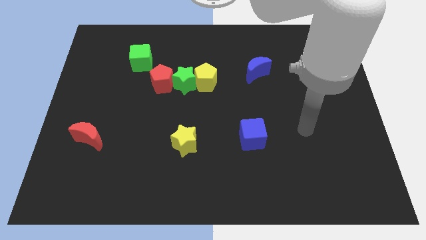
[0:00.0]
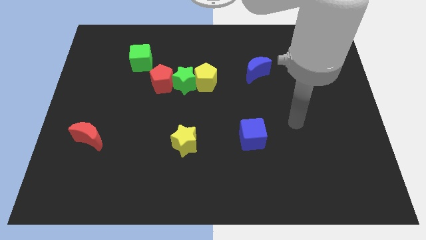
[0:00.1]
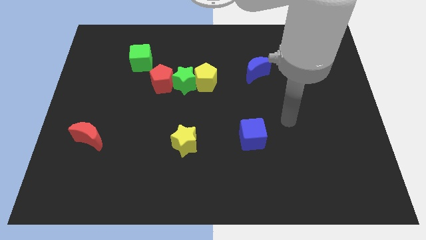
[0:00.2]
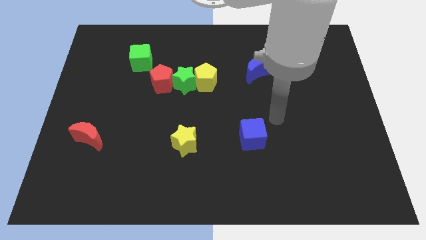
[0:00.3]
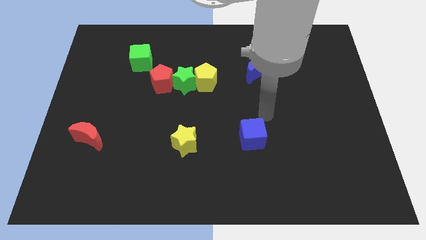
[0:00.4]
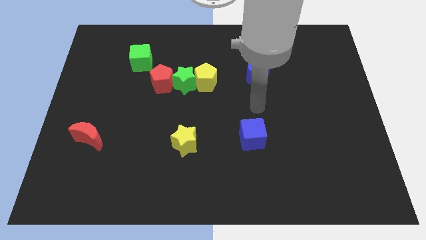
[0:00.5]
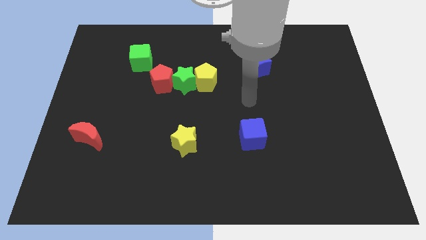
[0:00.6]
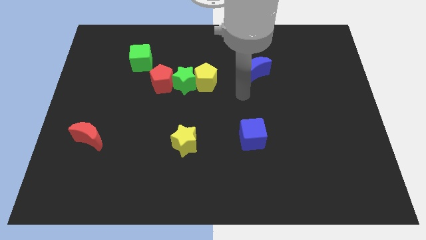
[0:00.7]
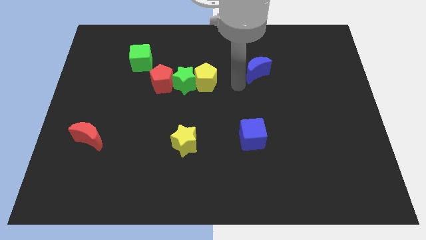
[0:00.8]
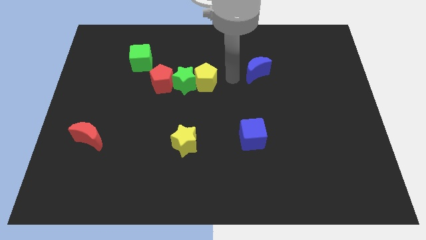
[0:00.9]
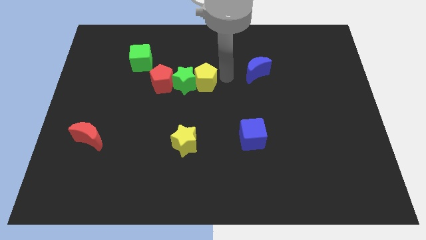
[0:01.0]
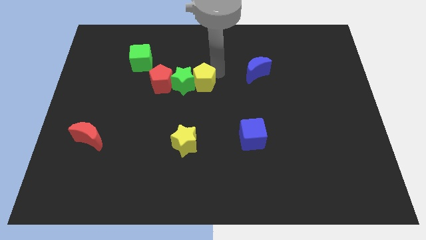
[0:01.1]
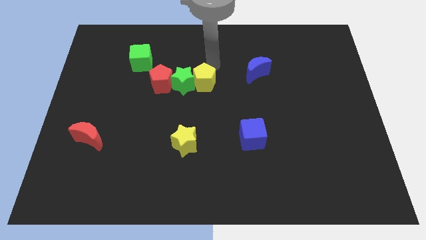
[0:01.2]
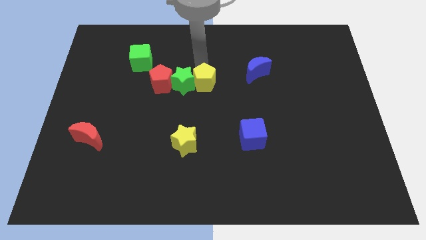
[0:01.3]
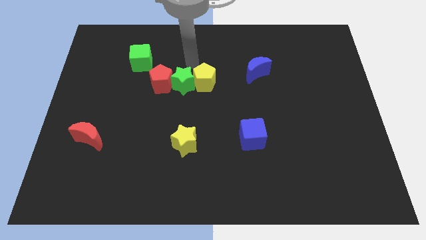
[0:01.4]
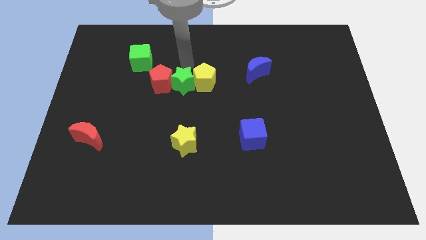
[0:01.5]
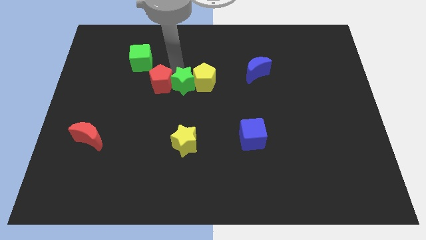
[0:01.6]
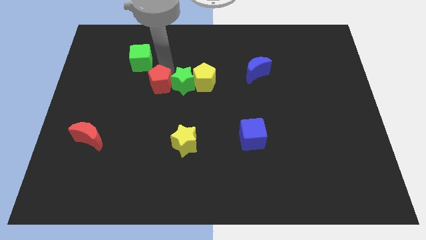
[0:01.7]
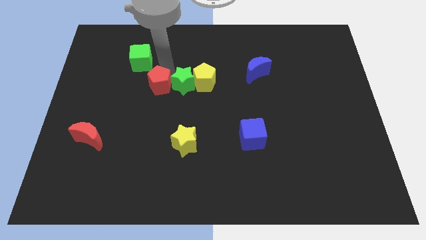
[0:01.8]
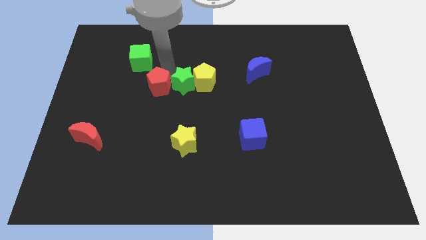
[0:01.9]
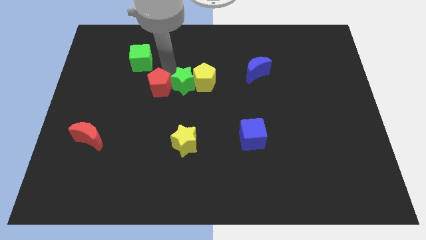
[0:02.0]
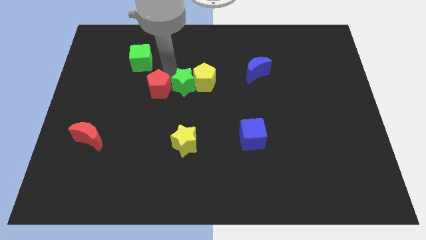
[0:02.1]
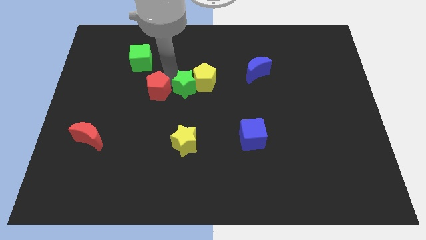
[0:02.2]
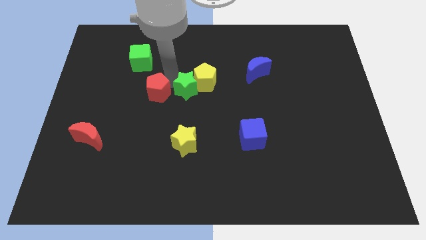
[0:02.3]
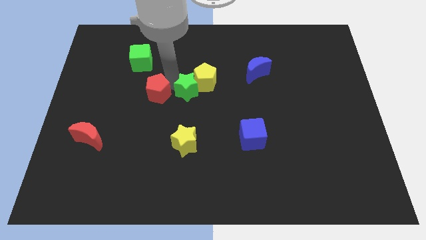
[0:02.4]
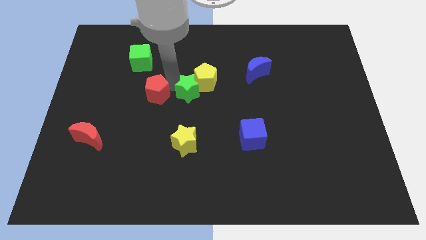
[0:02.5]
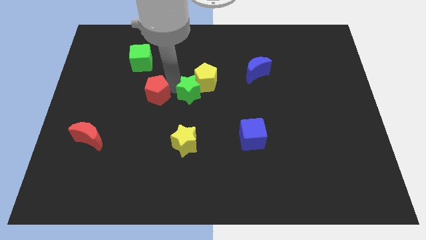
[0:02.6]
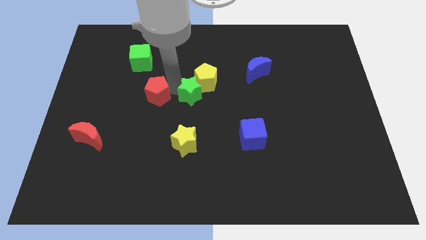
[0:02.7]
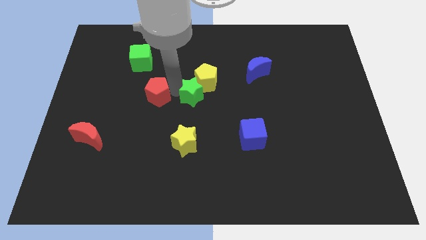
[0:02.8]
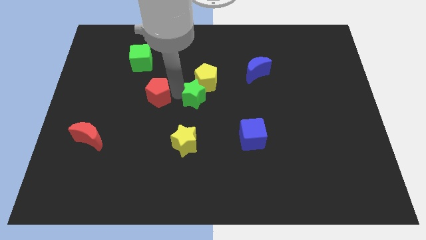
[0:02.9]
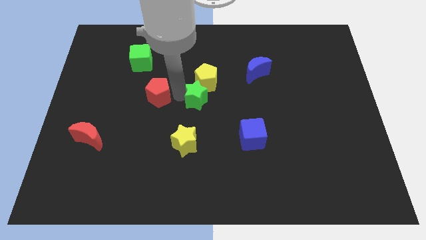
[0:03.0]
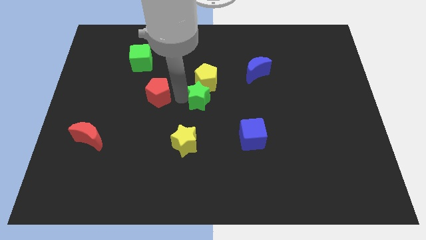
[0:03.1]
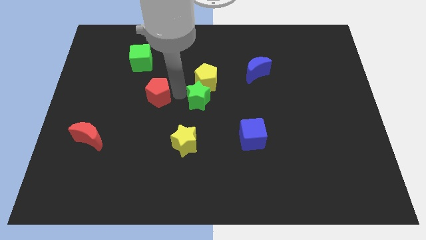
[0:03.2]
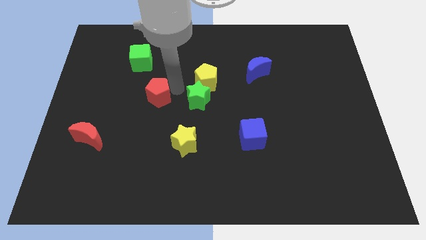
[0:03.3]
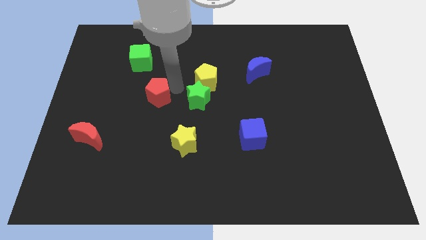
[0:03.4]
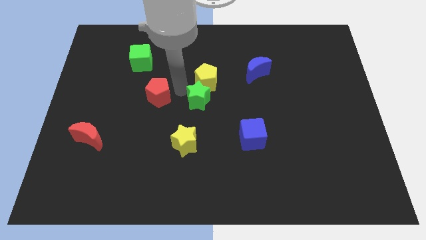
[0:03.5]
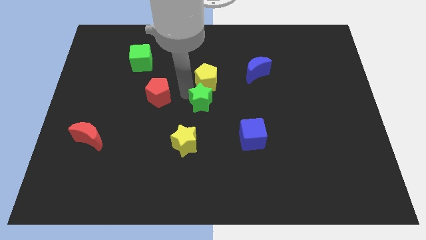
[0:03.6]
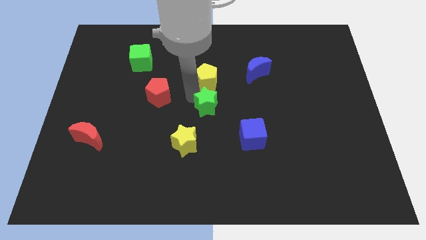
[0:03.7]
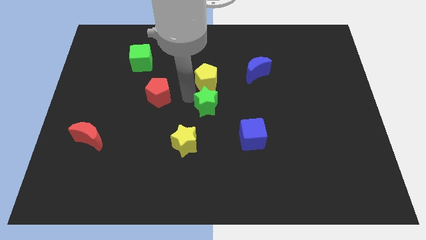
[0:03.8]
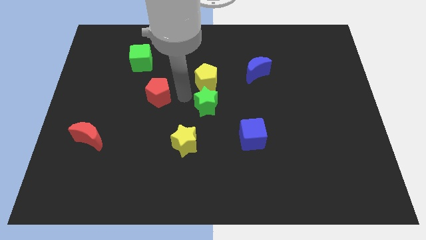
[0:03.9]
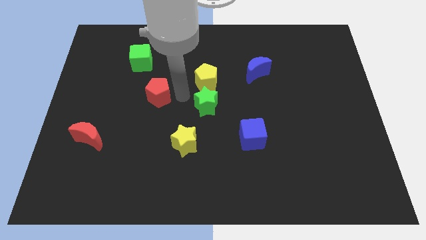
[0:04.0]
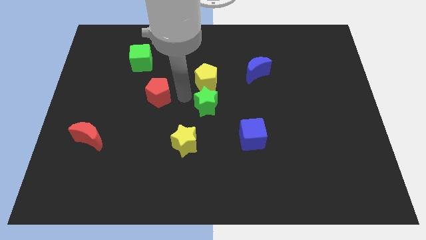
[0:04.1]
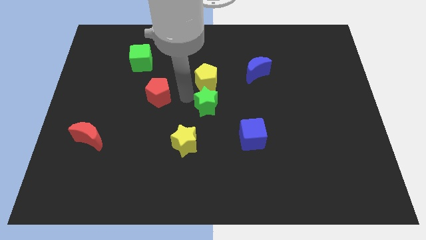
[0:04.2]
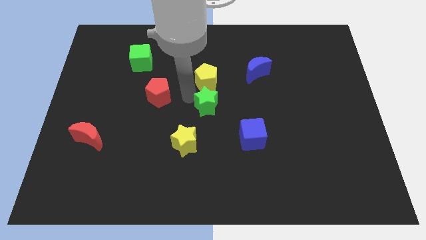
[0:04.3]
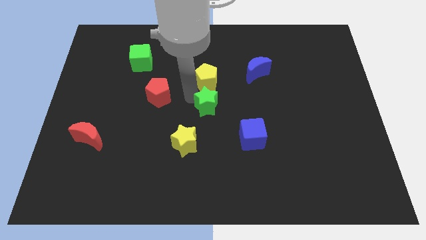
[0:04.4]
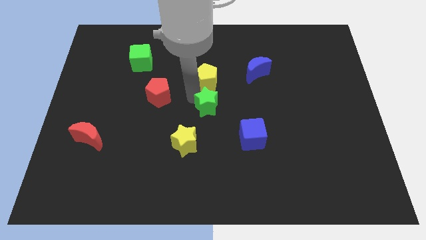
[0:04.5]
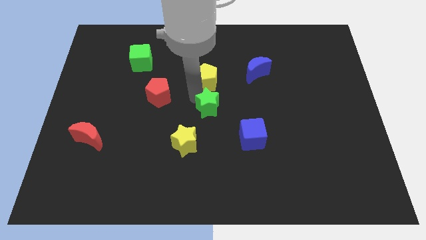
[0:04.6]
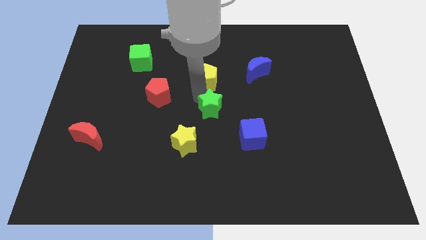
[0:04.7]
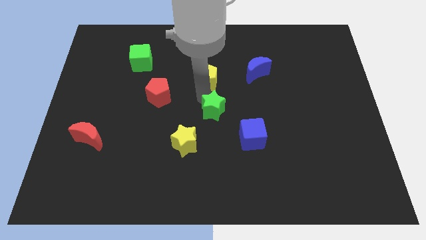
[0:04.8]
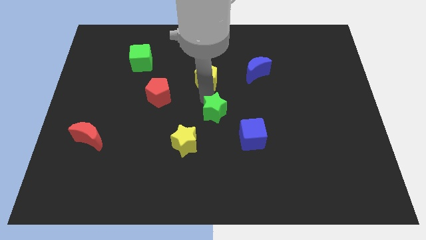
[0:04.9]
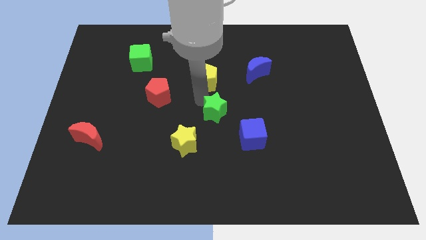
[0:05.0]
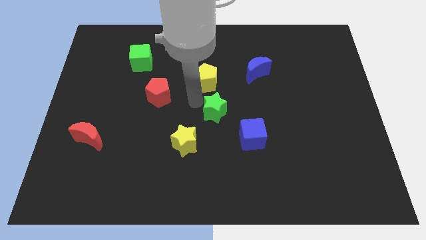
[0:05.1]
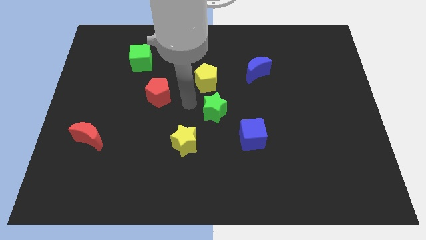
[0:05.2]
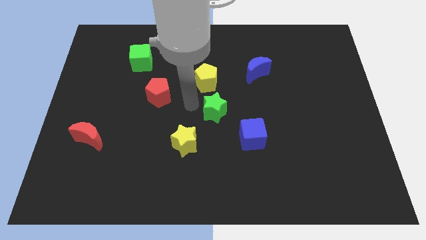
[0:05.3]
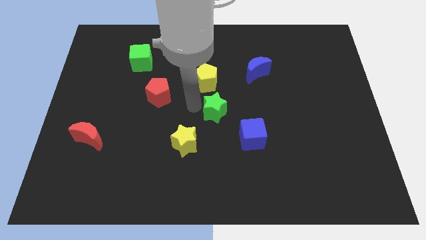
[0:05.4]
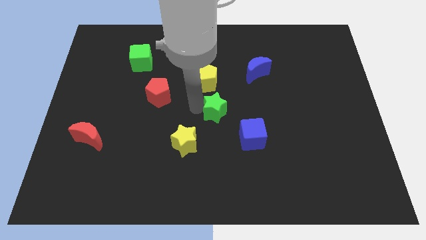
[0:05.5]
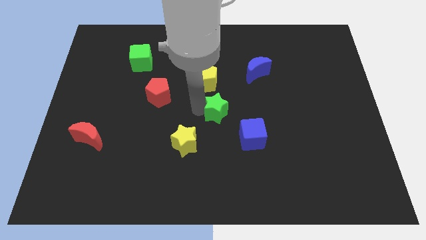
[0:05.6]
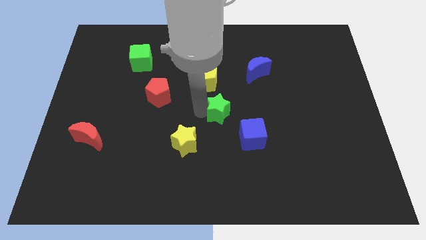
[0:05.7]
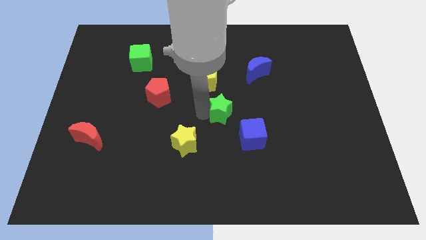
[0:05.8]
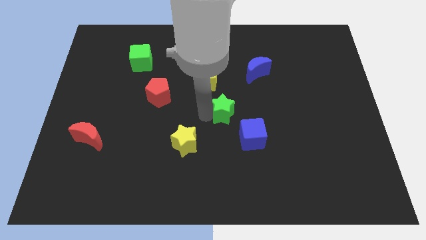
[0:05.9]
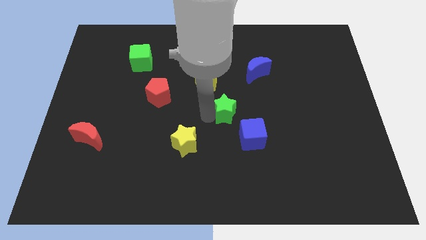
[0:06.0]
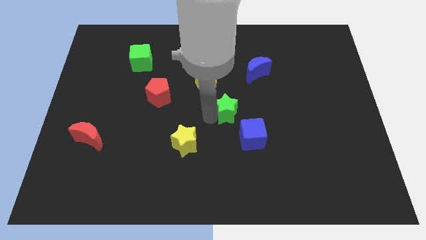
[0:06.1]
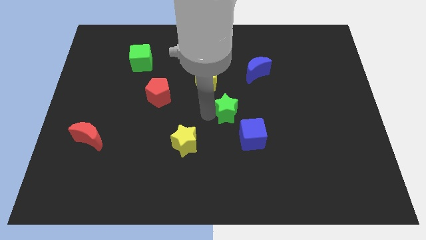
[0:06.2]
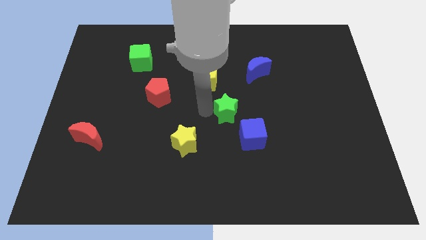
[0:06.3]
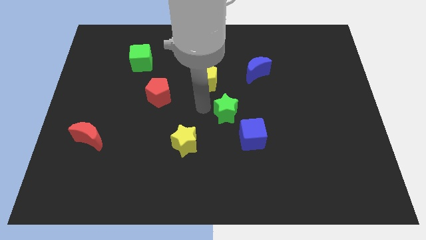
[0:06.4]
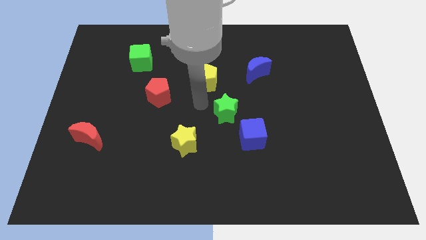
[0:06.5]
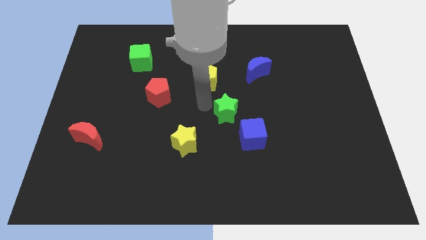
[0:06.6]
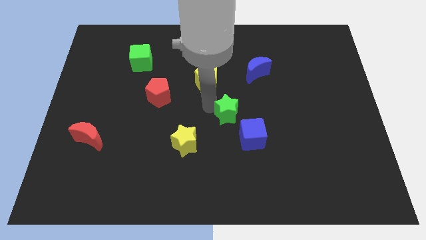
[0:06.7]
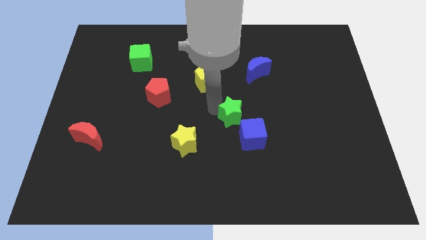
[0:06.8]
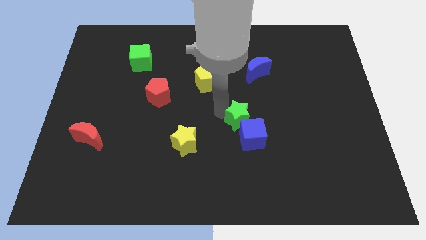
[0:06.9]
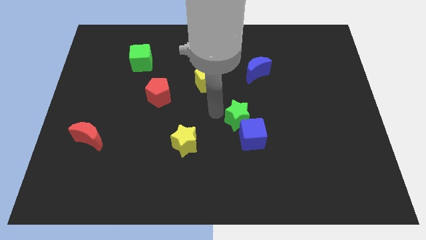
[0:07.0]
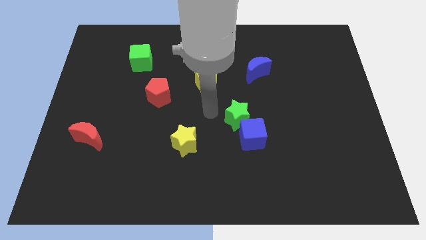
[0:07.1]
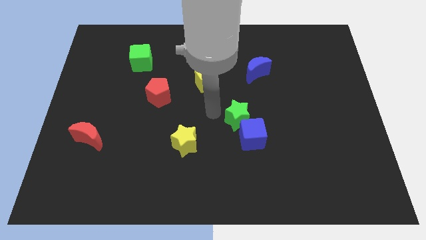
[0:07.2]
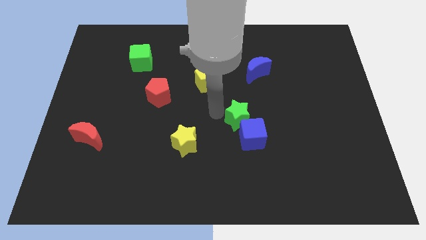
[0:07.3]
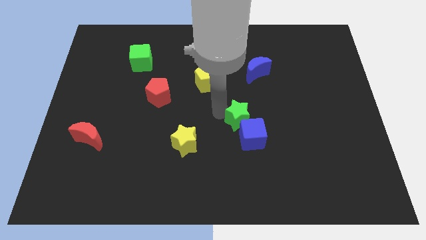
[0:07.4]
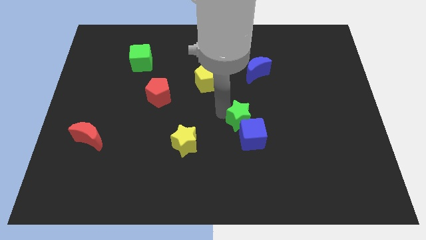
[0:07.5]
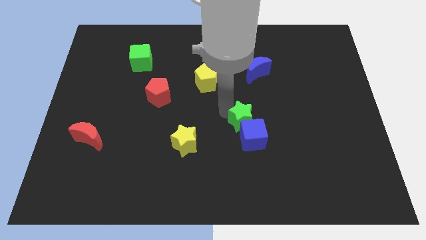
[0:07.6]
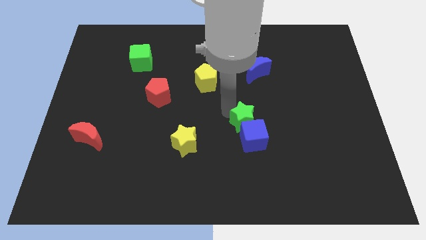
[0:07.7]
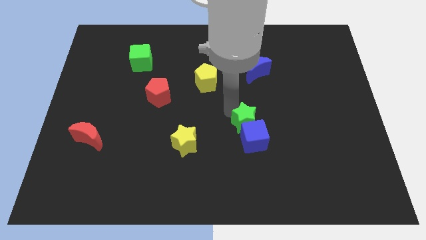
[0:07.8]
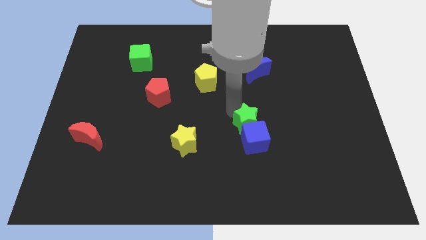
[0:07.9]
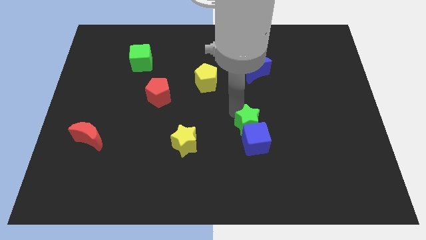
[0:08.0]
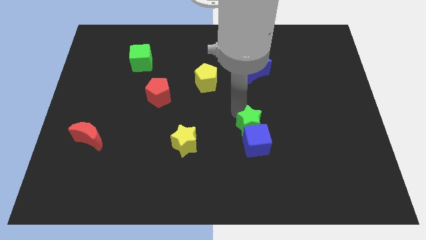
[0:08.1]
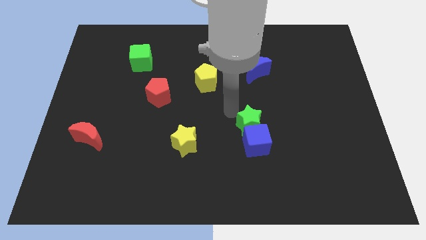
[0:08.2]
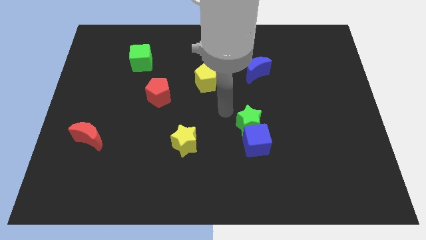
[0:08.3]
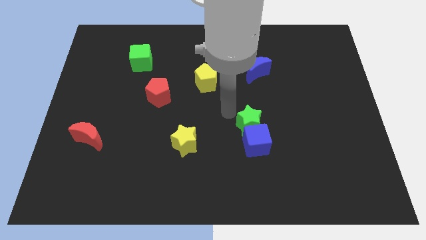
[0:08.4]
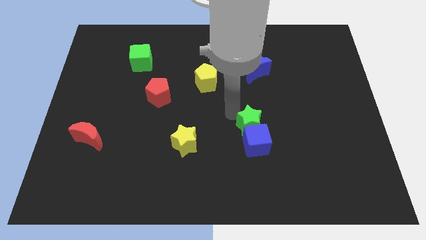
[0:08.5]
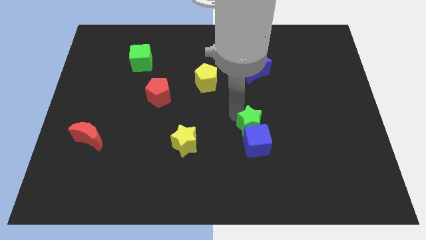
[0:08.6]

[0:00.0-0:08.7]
push the green star diagonally downwards and to the right
